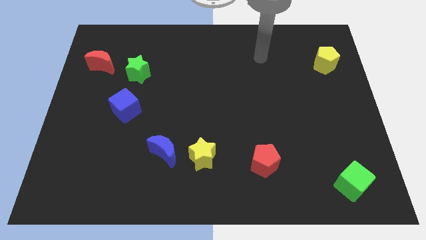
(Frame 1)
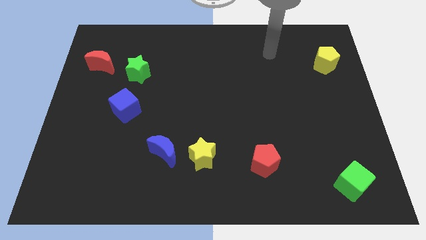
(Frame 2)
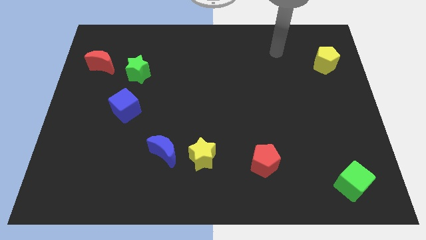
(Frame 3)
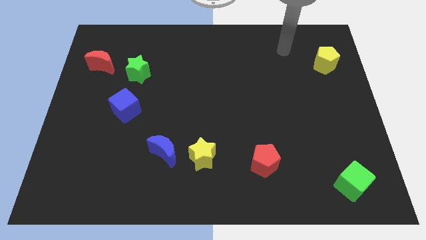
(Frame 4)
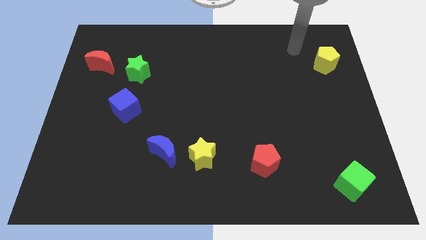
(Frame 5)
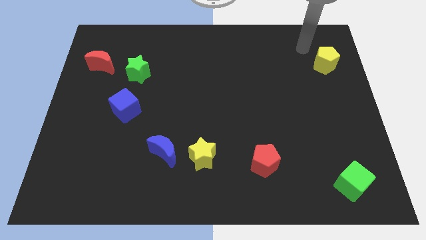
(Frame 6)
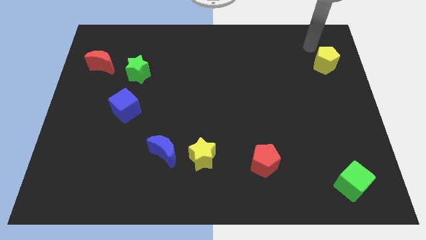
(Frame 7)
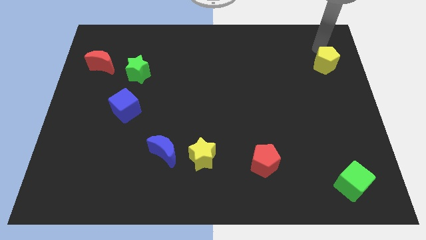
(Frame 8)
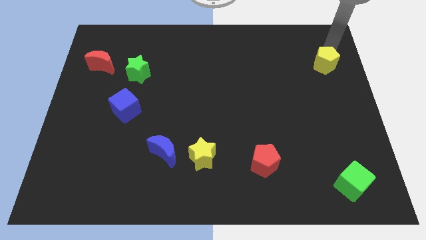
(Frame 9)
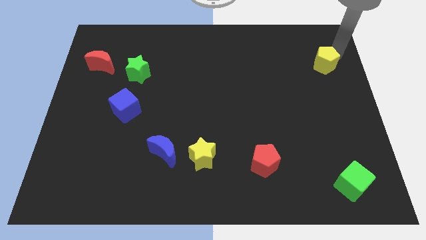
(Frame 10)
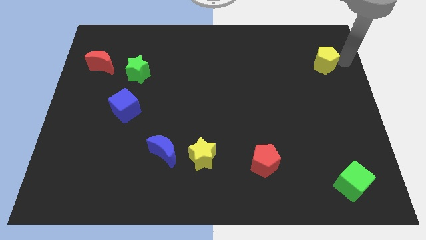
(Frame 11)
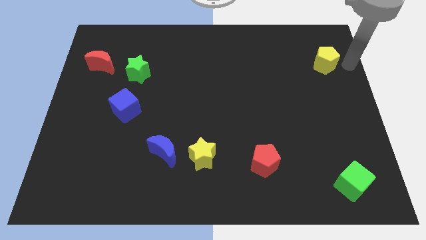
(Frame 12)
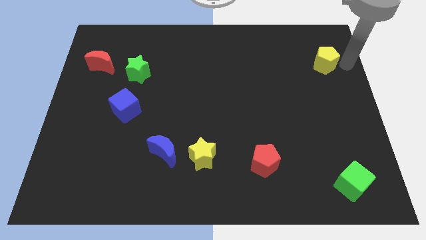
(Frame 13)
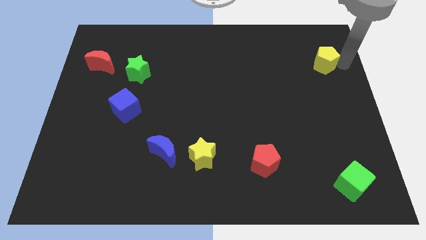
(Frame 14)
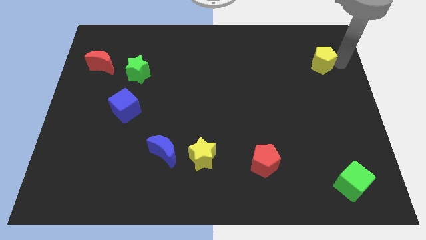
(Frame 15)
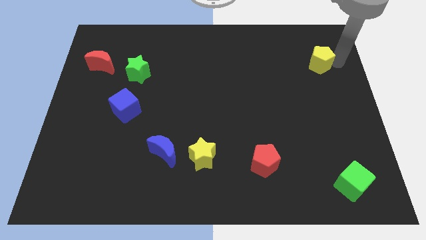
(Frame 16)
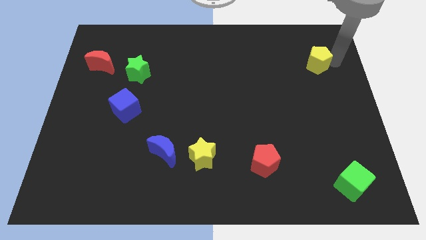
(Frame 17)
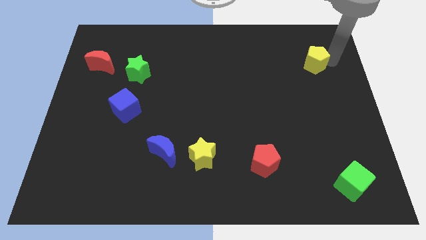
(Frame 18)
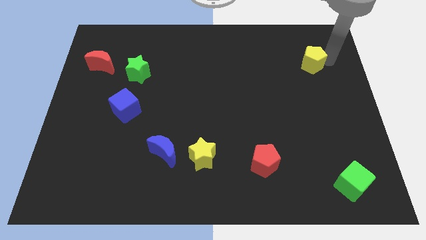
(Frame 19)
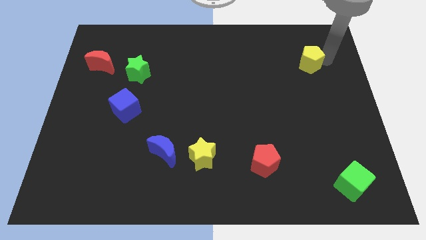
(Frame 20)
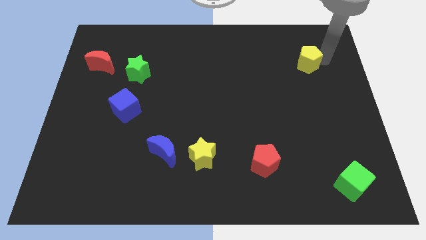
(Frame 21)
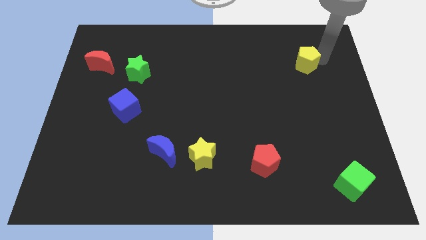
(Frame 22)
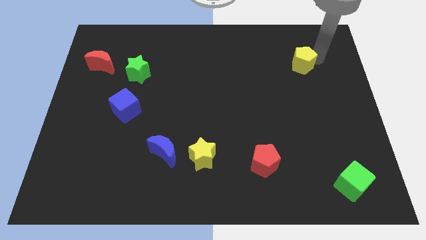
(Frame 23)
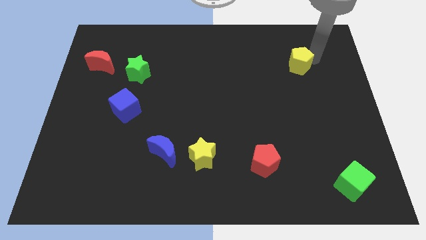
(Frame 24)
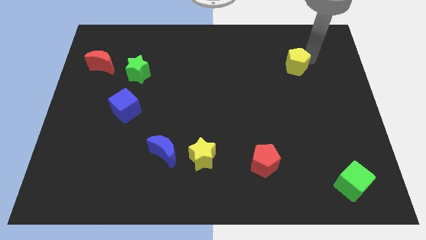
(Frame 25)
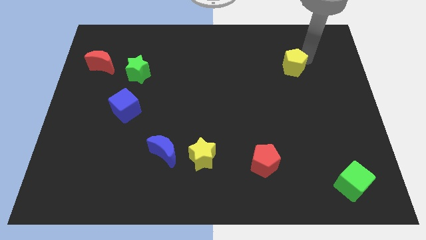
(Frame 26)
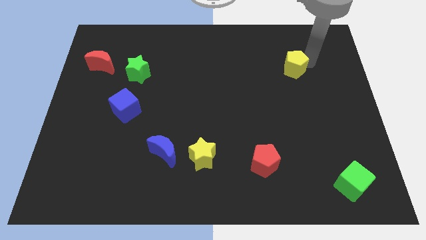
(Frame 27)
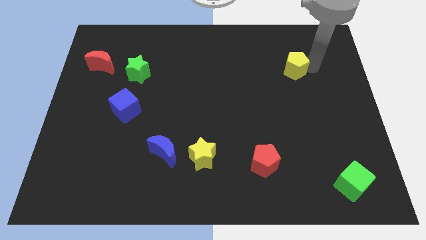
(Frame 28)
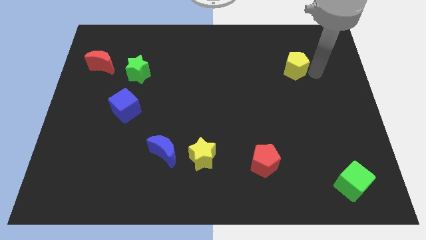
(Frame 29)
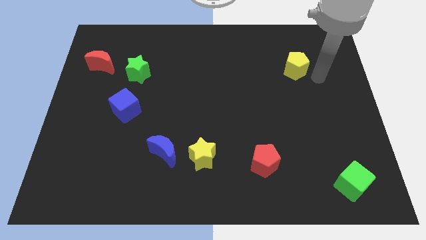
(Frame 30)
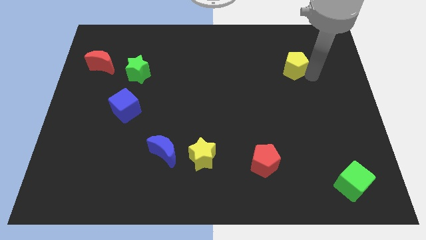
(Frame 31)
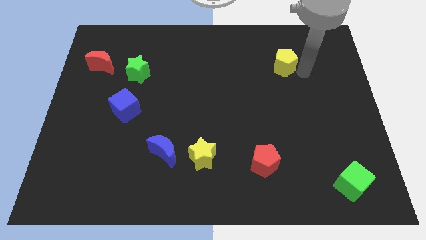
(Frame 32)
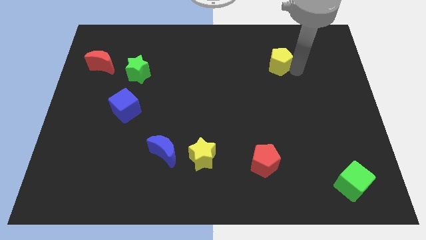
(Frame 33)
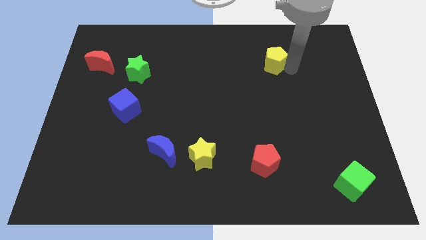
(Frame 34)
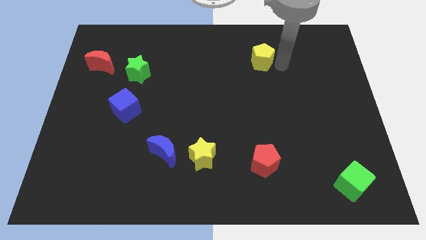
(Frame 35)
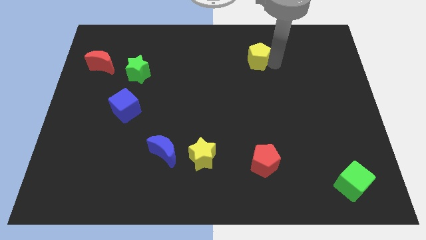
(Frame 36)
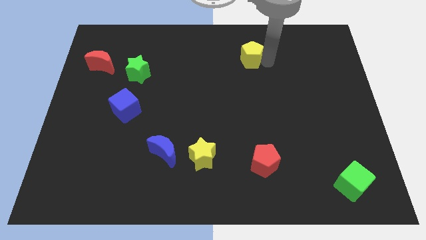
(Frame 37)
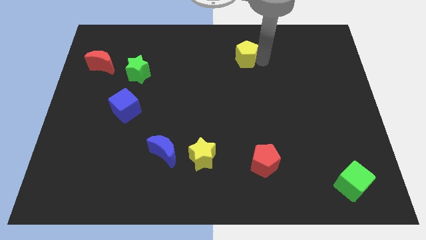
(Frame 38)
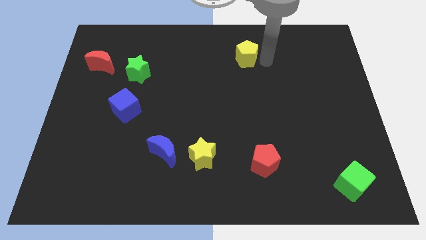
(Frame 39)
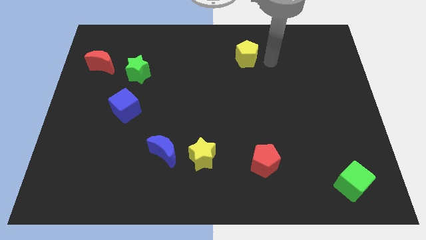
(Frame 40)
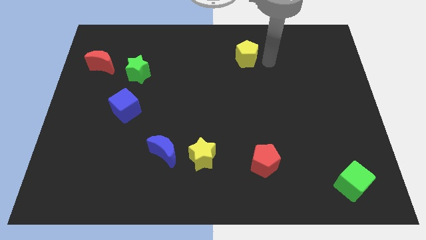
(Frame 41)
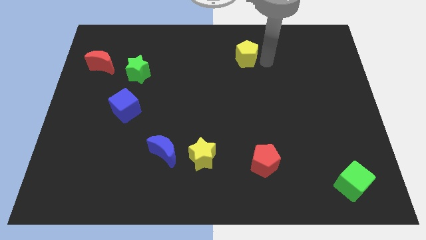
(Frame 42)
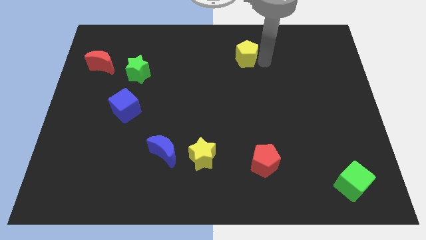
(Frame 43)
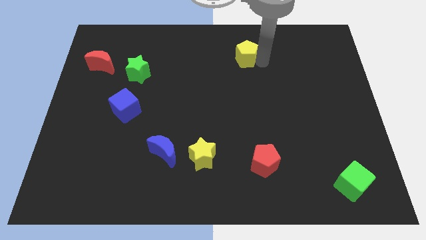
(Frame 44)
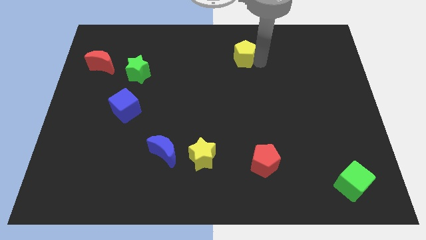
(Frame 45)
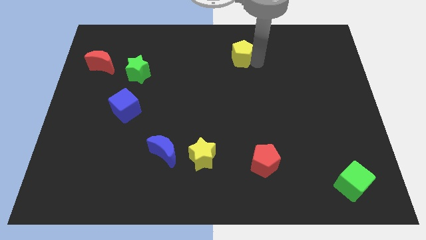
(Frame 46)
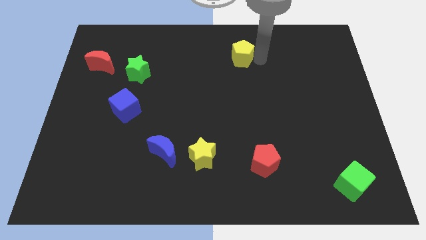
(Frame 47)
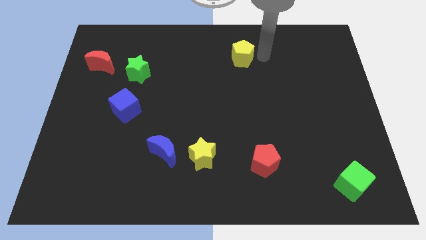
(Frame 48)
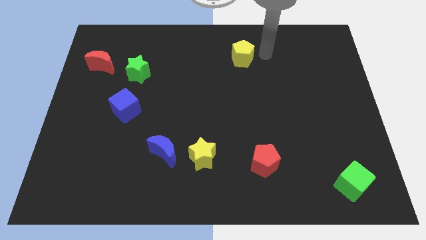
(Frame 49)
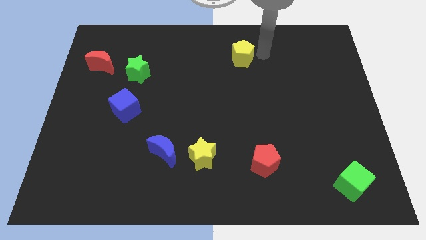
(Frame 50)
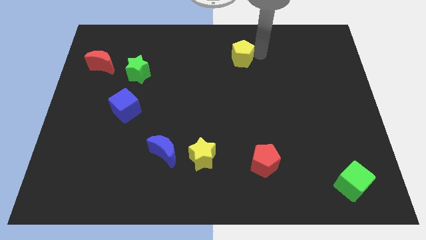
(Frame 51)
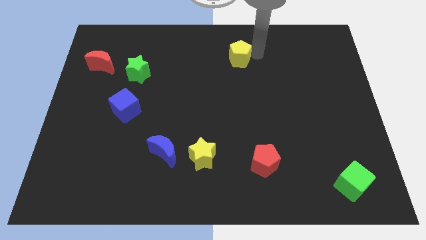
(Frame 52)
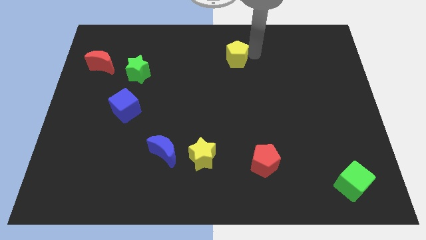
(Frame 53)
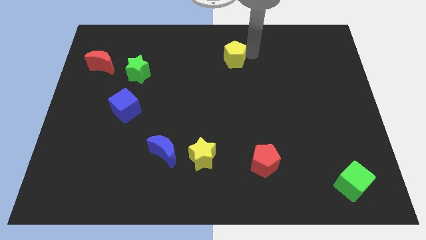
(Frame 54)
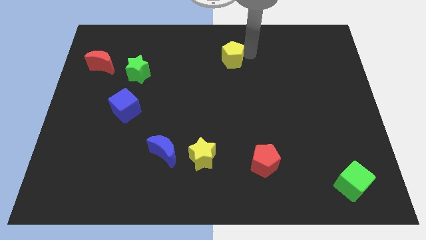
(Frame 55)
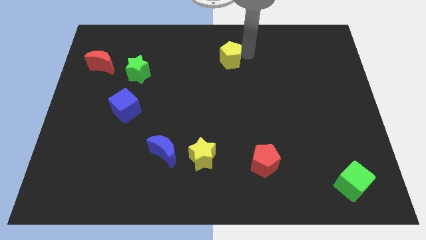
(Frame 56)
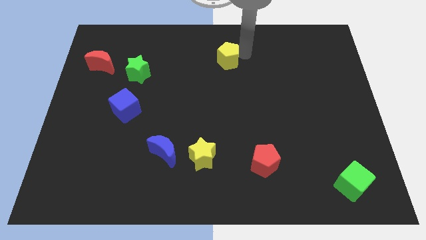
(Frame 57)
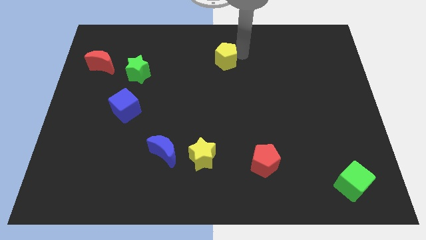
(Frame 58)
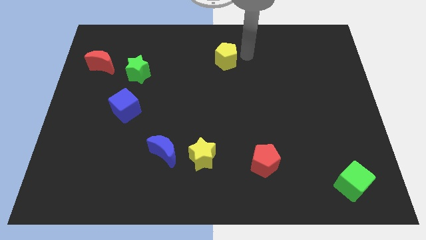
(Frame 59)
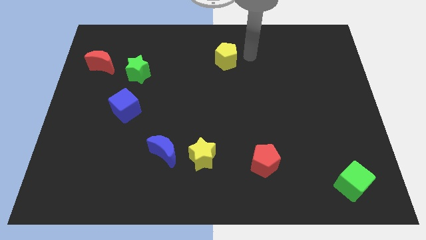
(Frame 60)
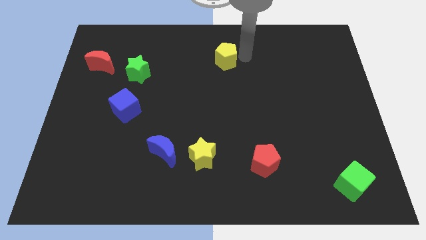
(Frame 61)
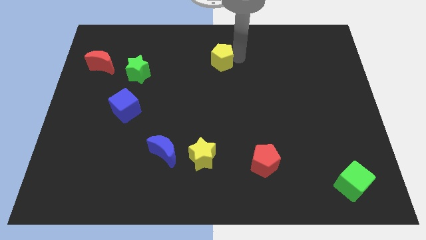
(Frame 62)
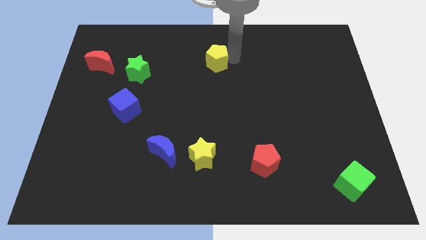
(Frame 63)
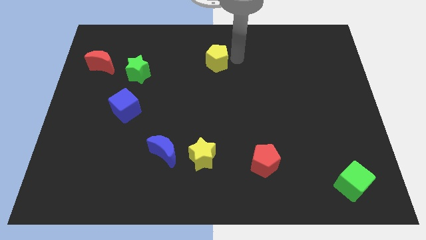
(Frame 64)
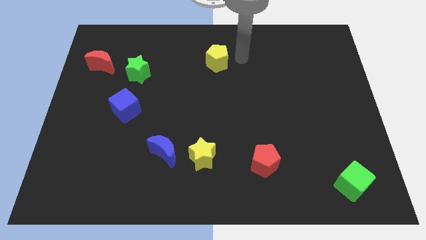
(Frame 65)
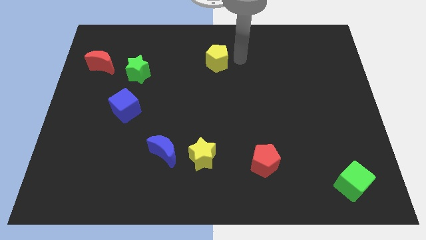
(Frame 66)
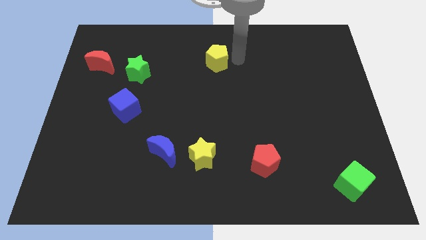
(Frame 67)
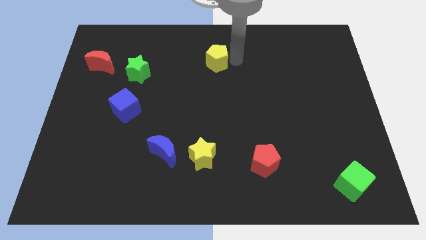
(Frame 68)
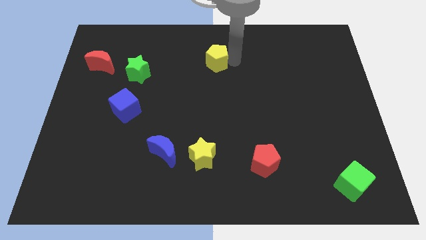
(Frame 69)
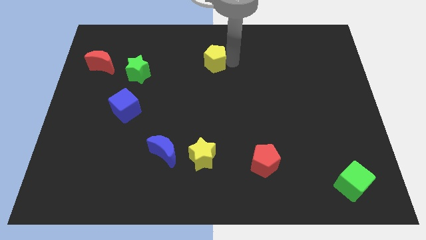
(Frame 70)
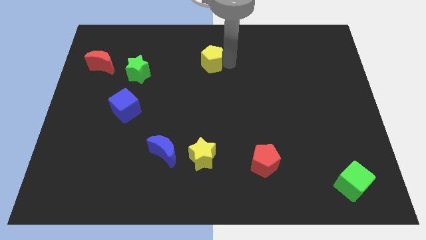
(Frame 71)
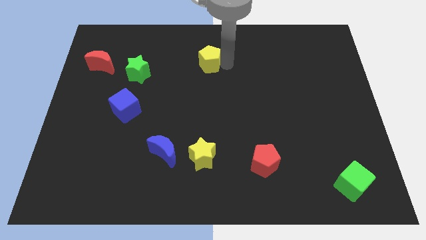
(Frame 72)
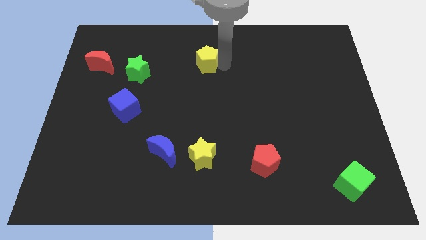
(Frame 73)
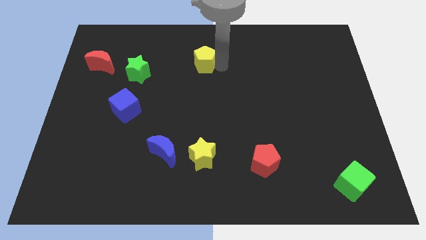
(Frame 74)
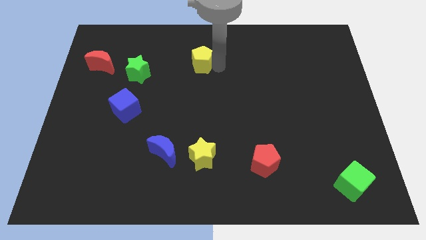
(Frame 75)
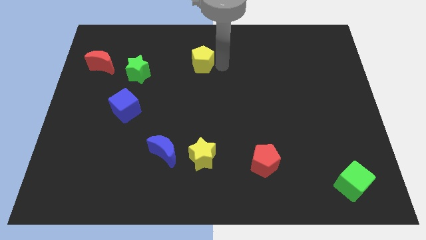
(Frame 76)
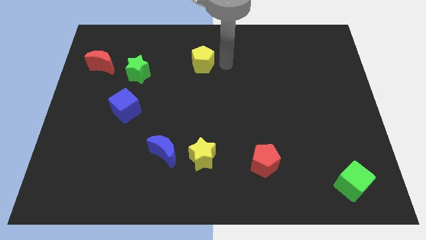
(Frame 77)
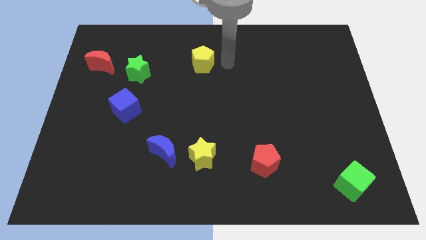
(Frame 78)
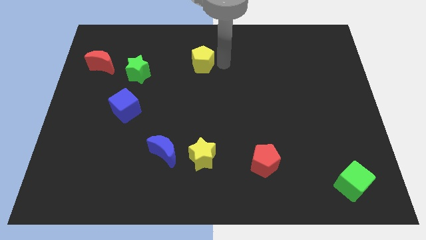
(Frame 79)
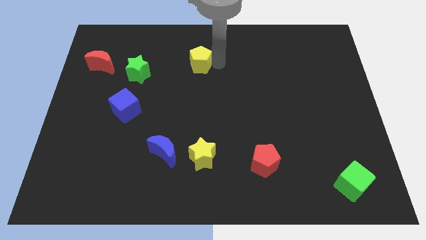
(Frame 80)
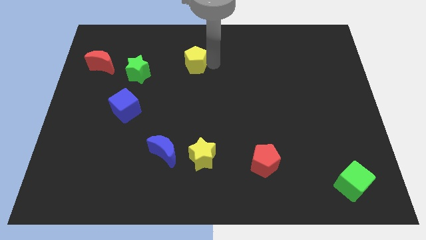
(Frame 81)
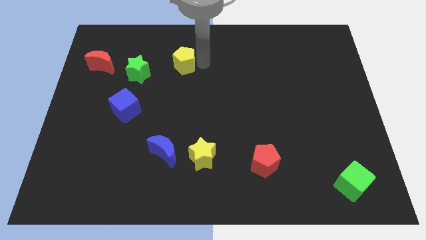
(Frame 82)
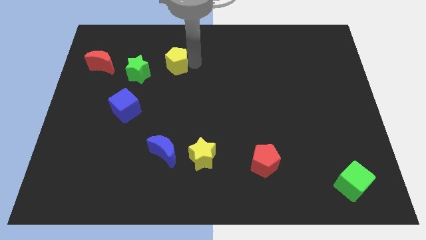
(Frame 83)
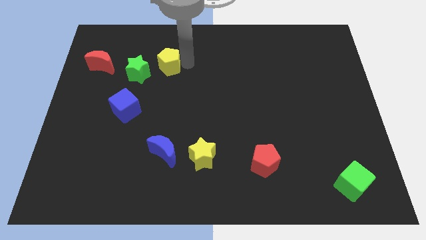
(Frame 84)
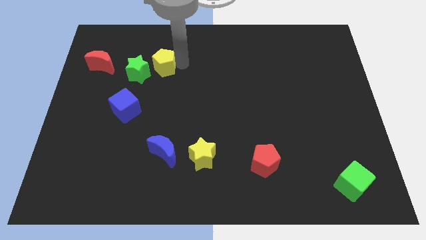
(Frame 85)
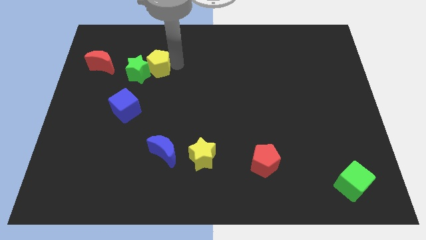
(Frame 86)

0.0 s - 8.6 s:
move the yellow pentagon next to the green star
